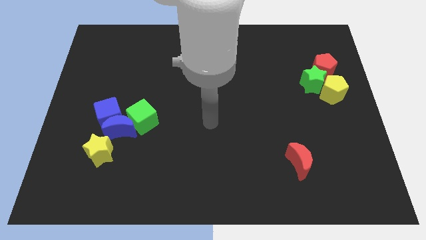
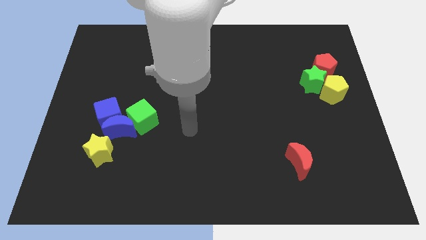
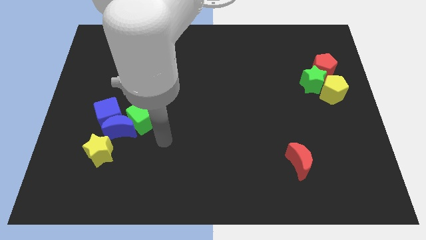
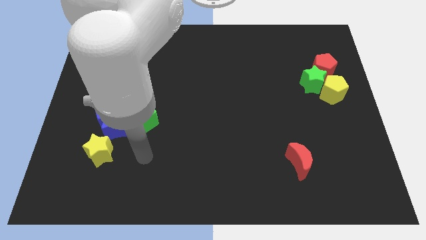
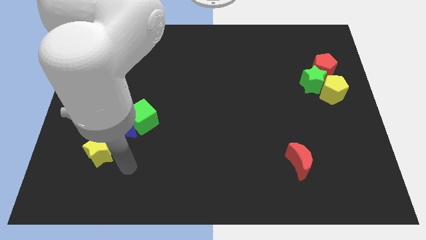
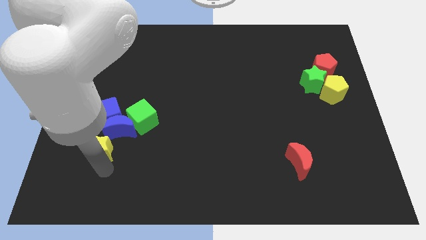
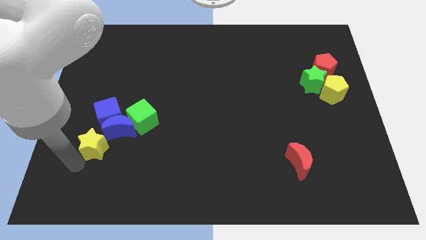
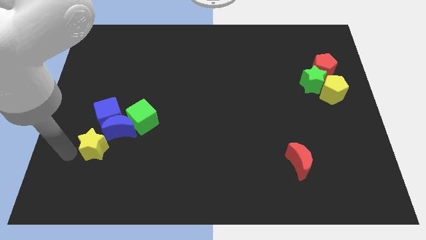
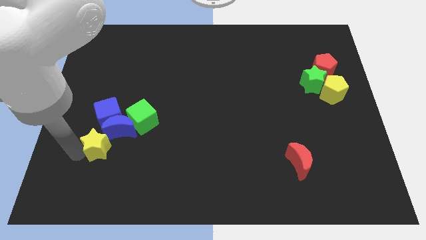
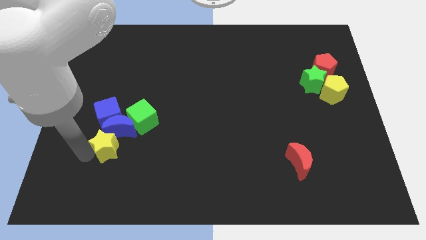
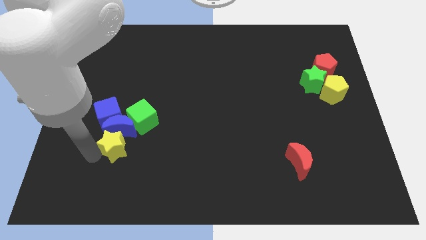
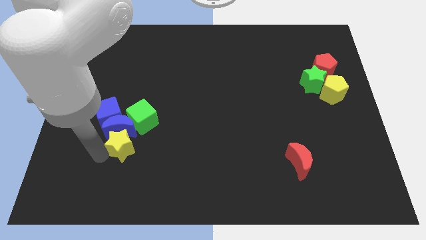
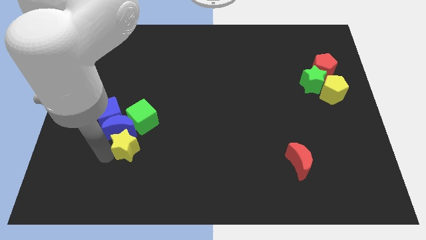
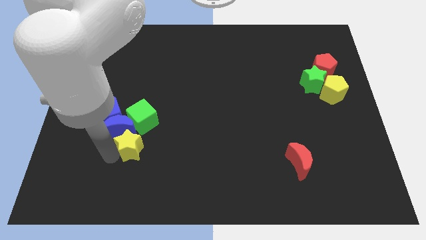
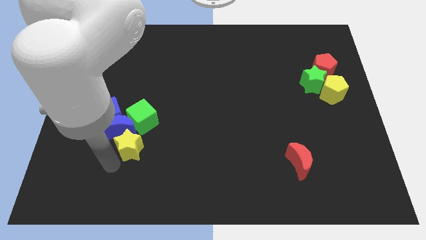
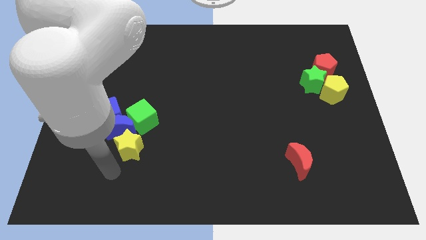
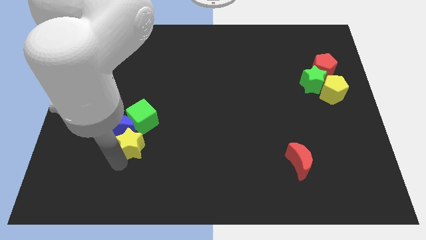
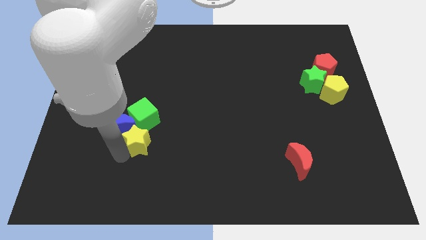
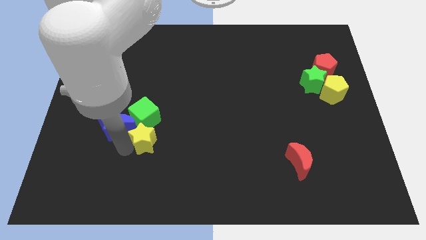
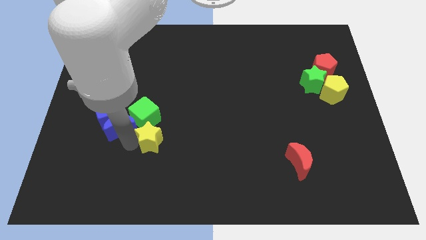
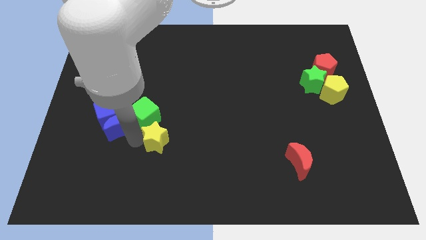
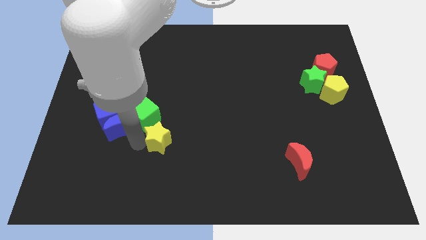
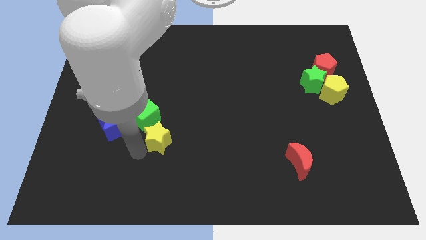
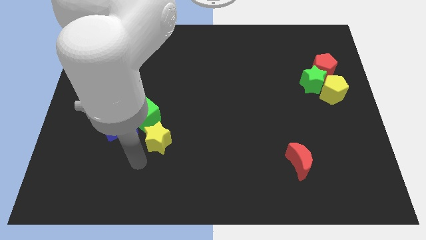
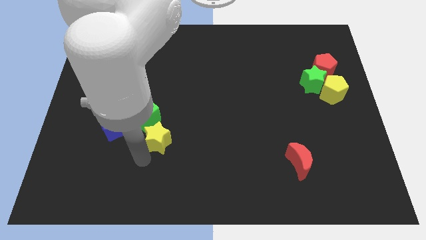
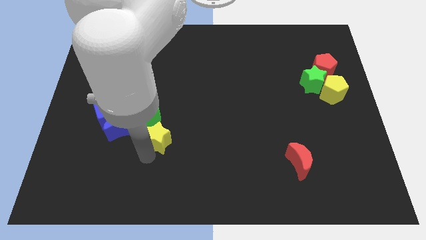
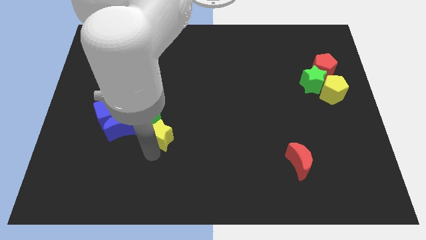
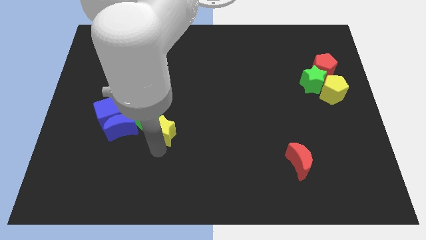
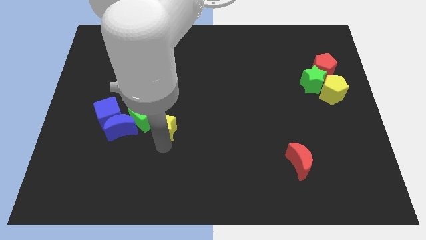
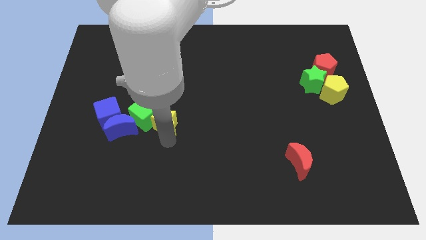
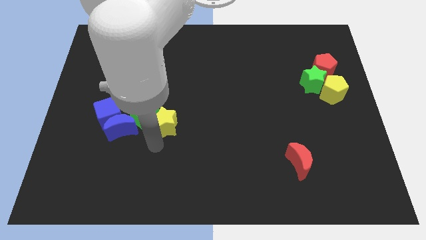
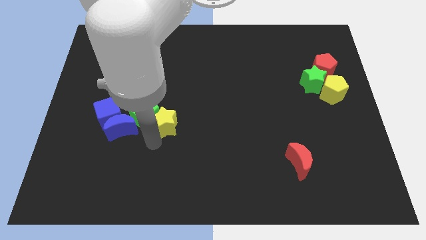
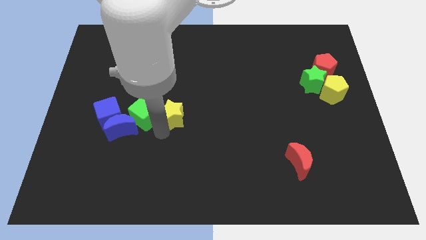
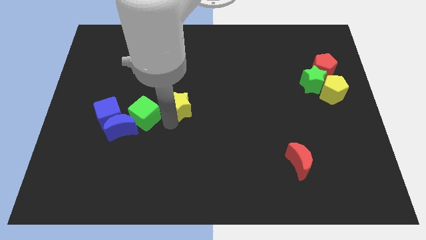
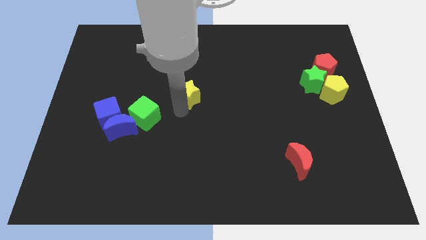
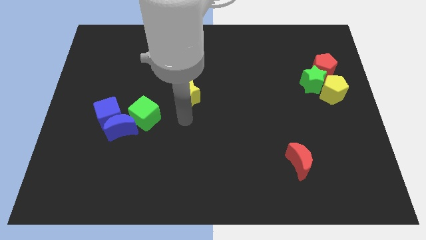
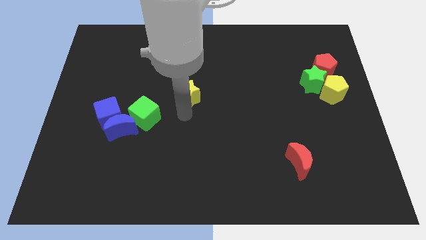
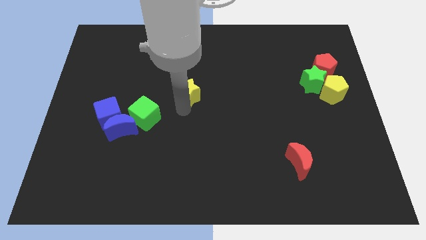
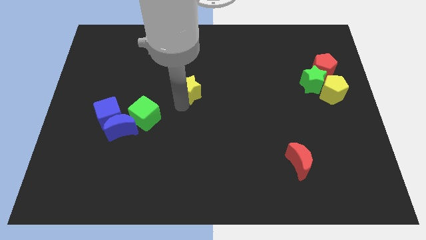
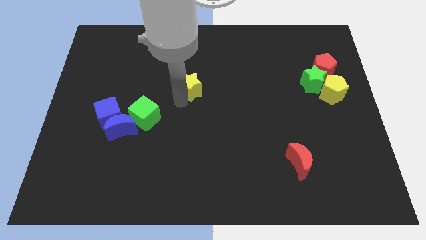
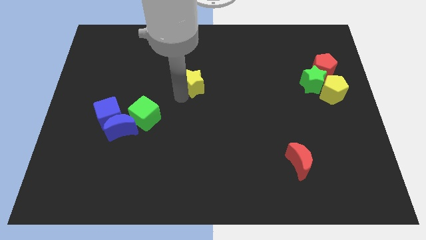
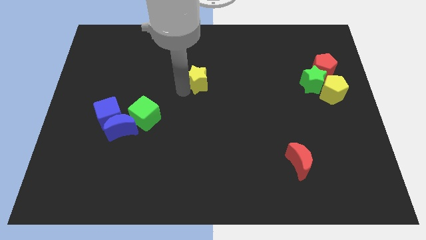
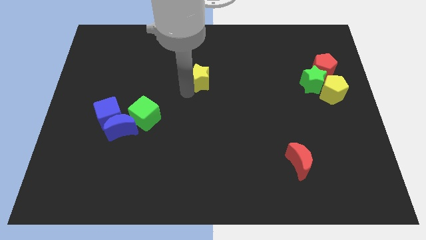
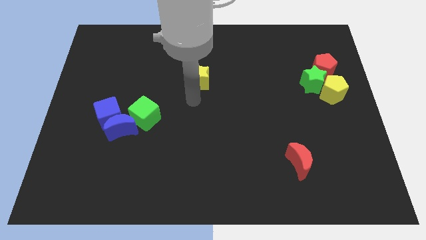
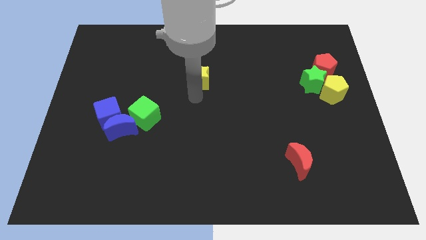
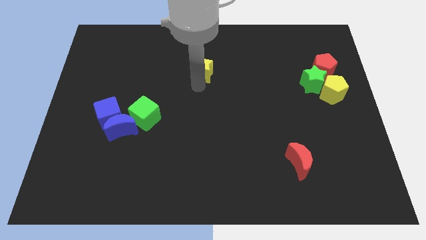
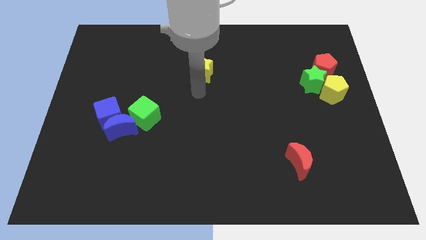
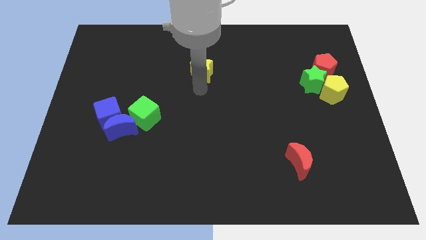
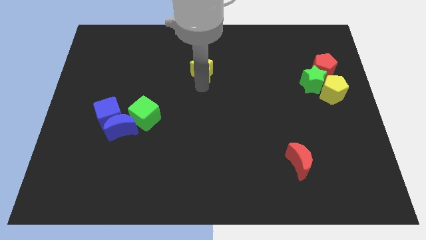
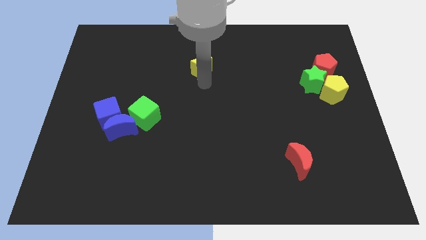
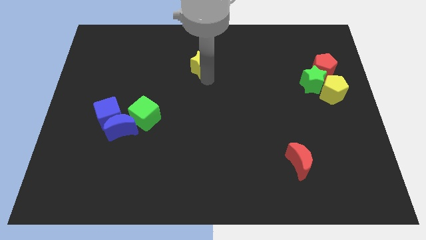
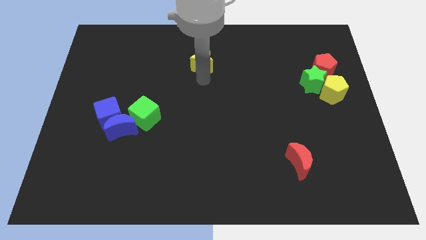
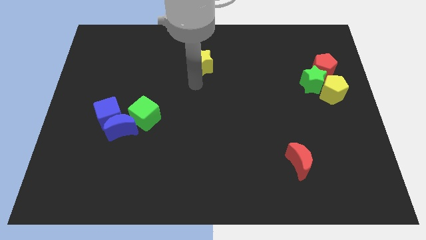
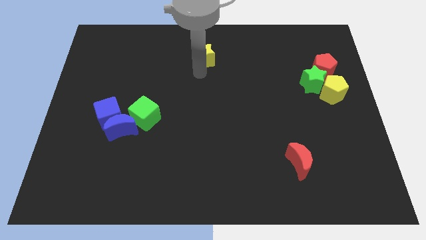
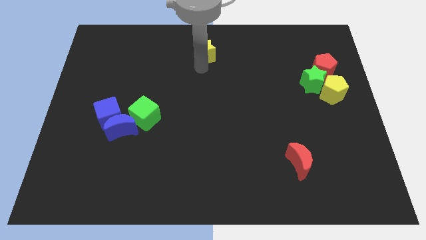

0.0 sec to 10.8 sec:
move the yellow star to the towards your base

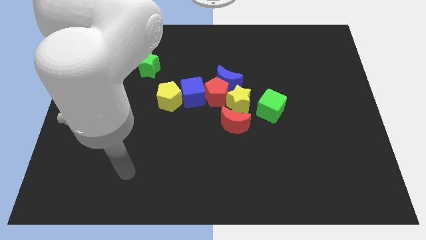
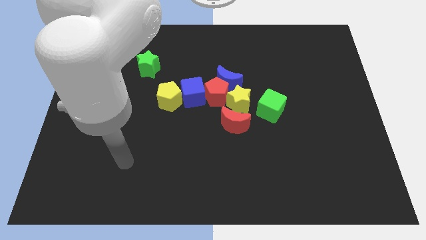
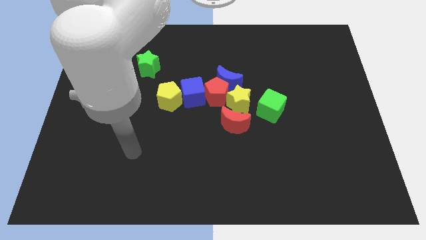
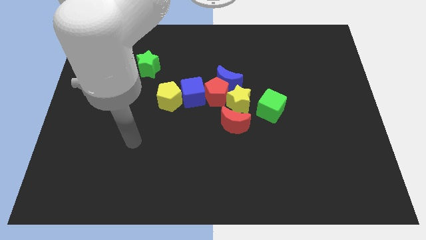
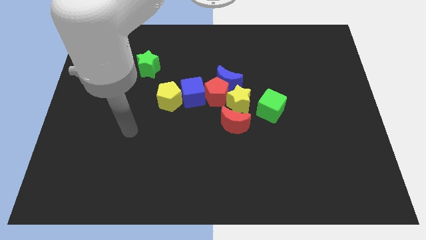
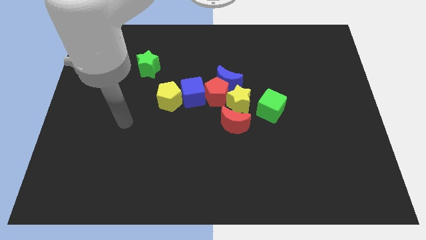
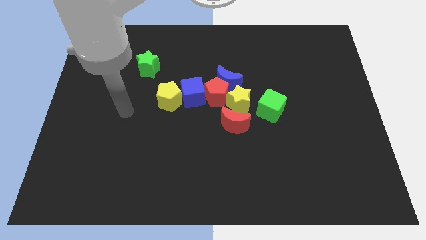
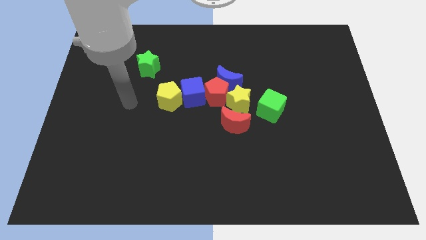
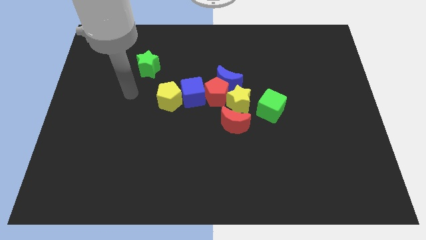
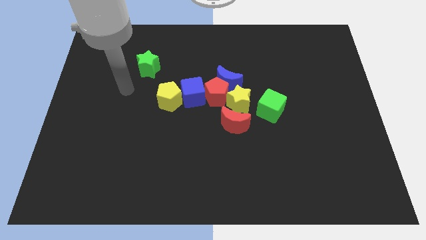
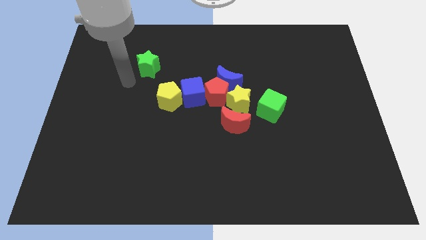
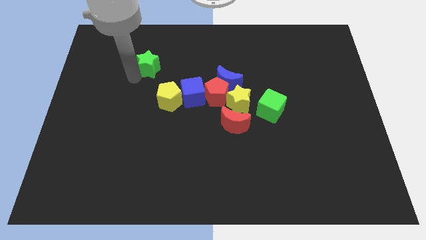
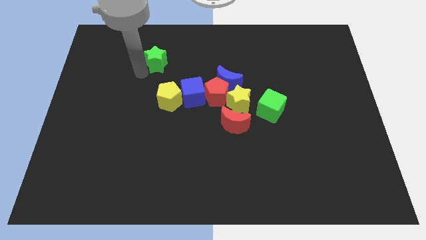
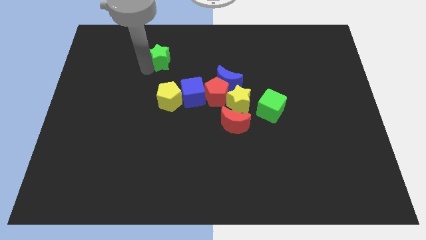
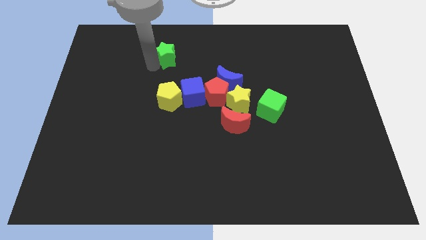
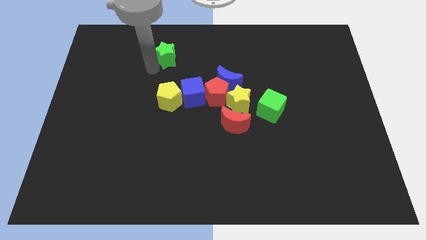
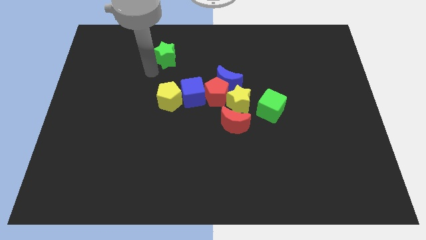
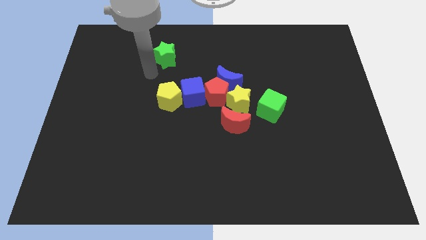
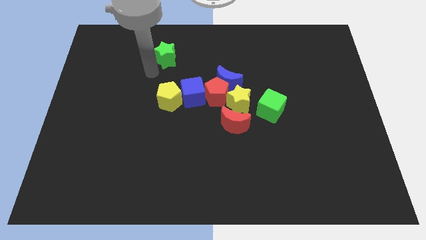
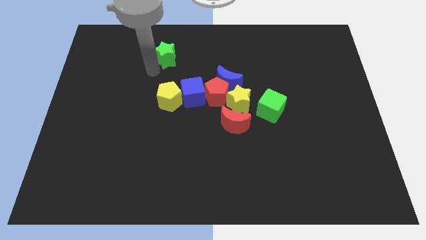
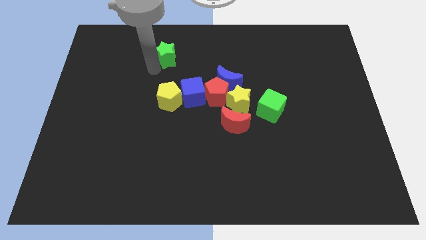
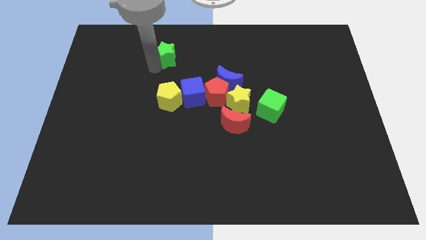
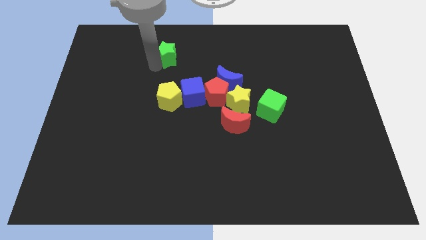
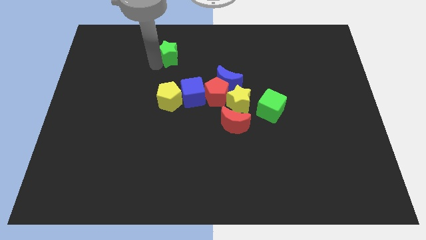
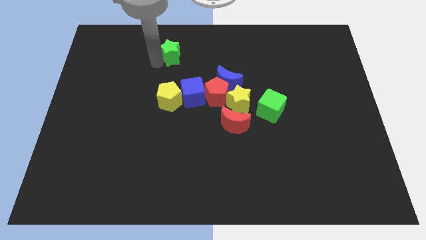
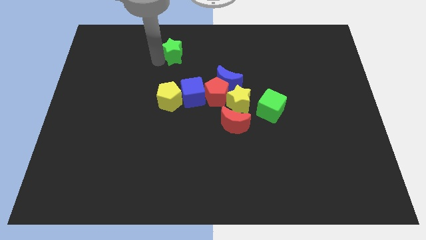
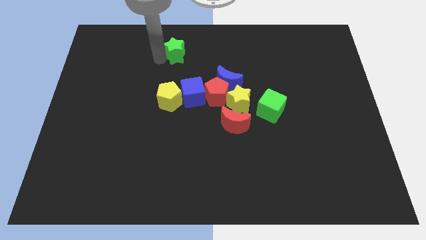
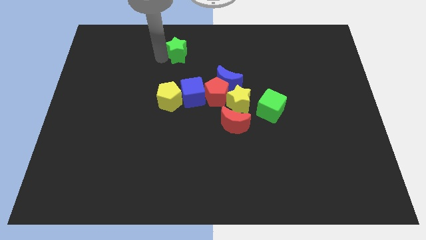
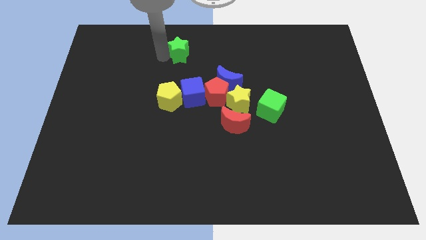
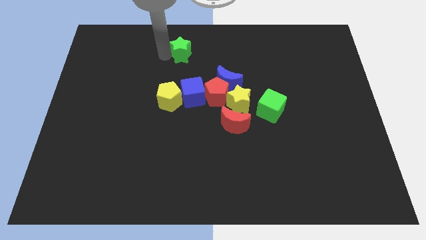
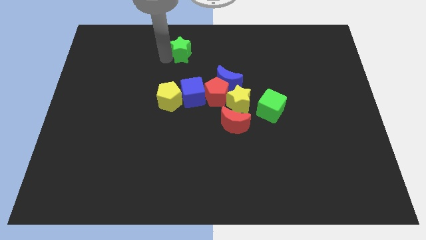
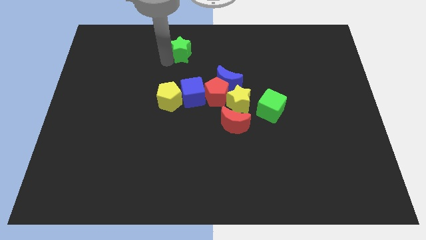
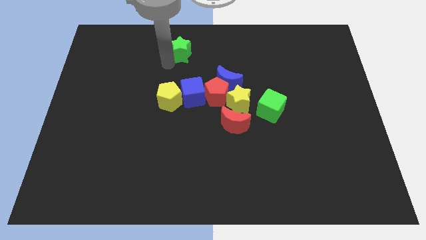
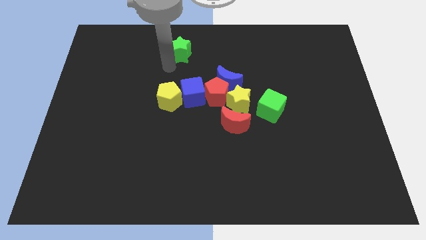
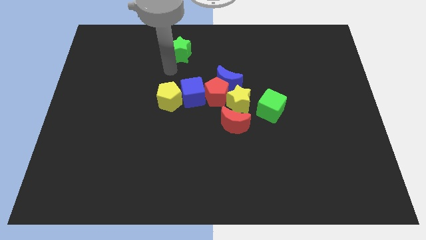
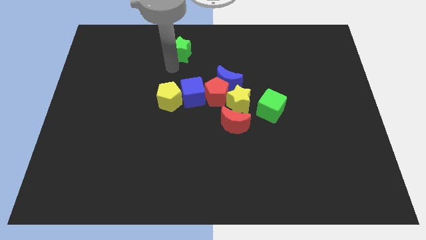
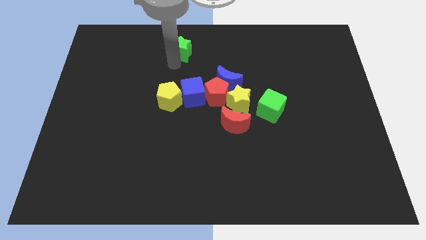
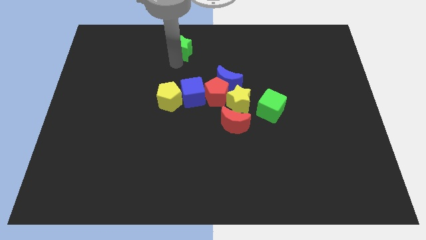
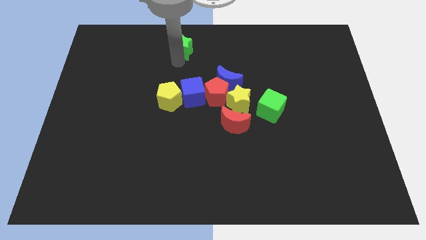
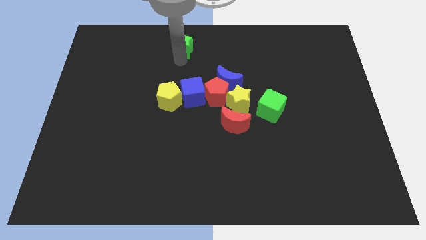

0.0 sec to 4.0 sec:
move the green star to the top
